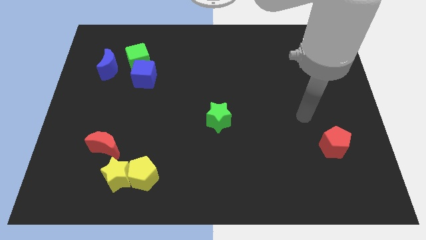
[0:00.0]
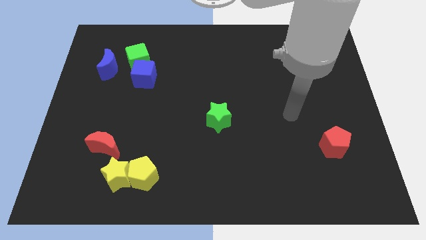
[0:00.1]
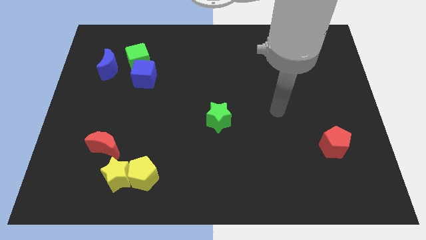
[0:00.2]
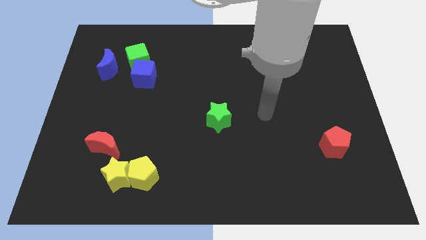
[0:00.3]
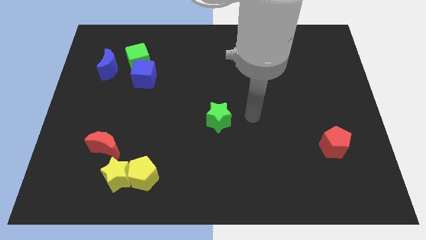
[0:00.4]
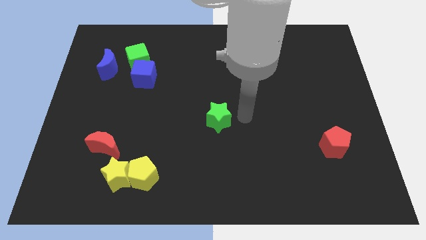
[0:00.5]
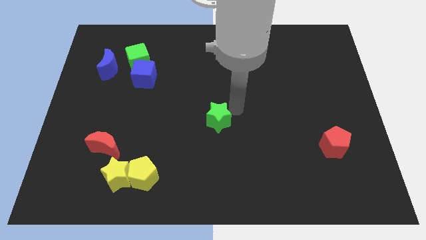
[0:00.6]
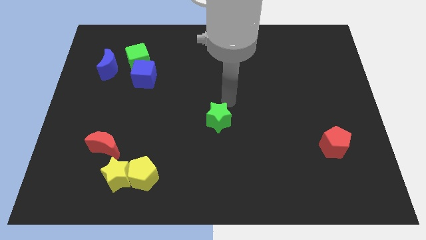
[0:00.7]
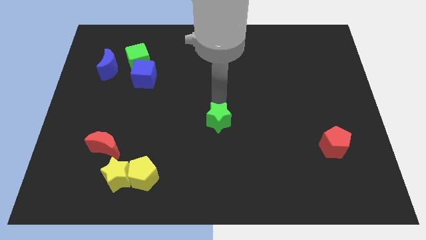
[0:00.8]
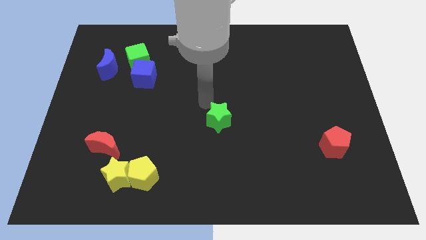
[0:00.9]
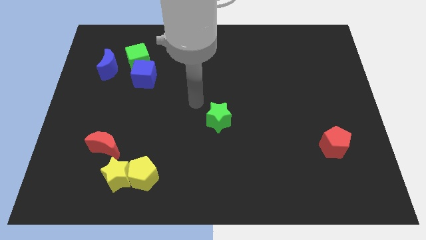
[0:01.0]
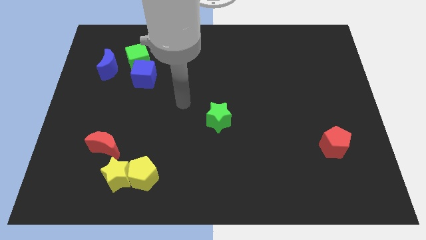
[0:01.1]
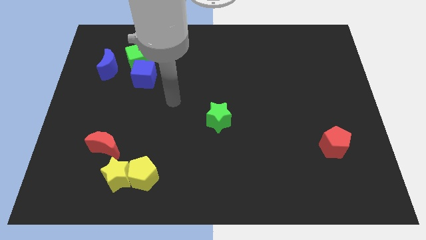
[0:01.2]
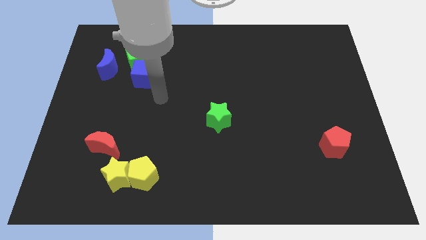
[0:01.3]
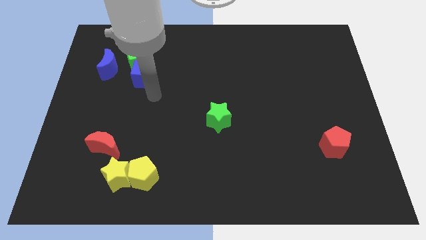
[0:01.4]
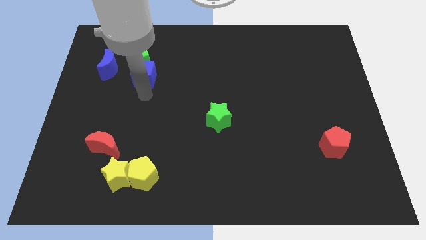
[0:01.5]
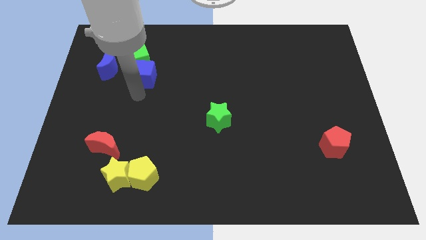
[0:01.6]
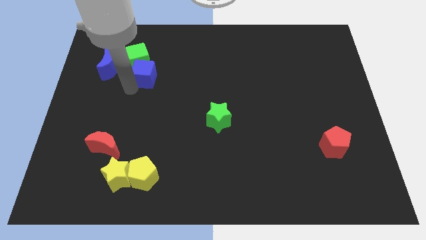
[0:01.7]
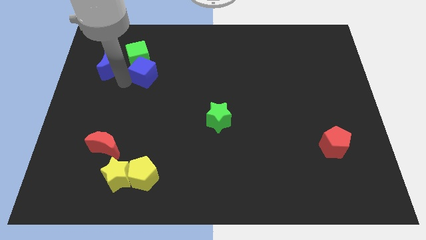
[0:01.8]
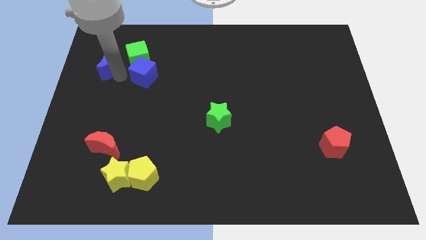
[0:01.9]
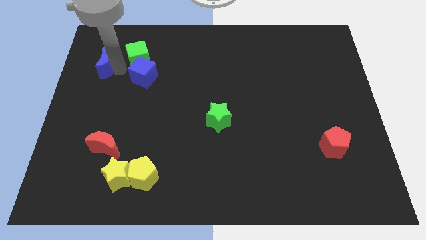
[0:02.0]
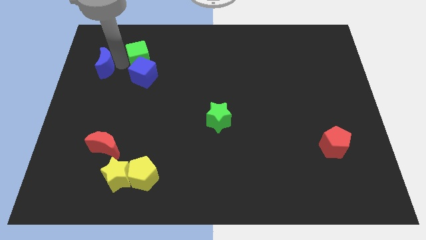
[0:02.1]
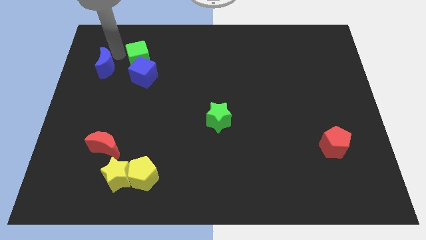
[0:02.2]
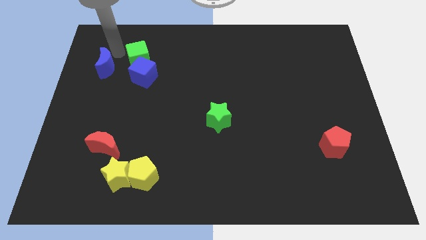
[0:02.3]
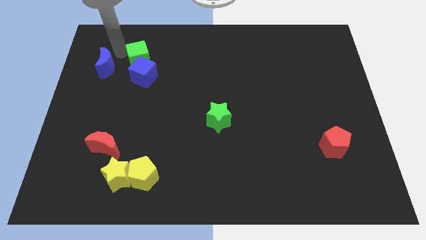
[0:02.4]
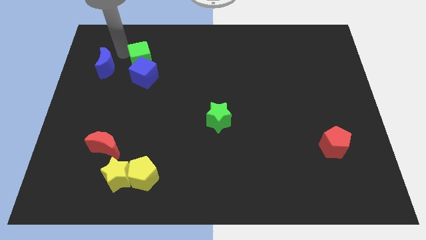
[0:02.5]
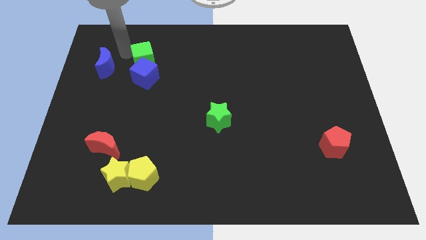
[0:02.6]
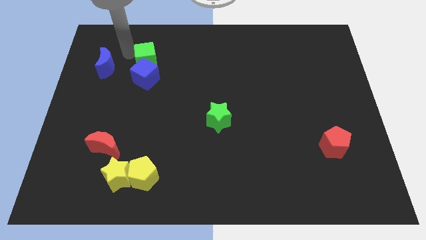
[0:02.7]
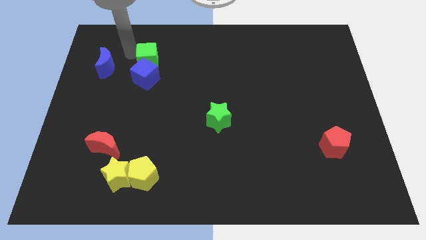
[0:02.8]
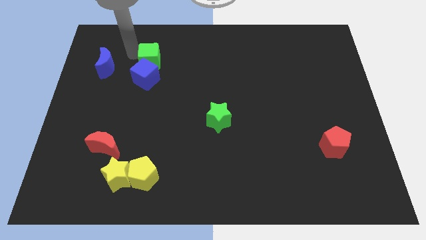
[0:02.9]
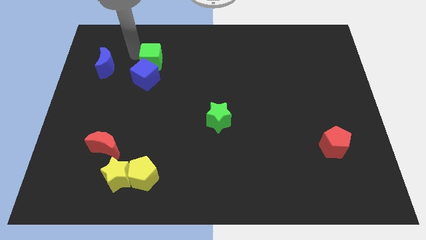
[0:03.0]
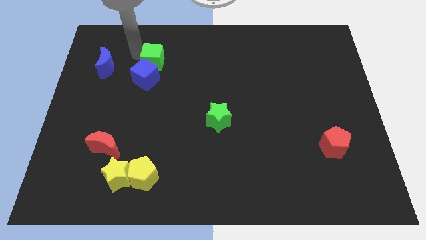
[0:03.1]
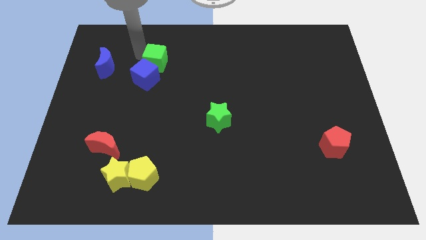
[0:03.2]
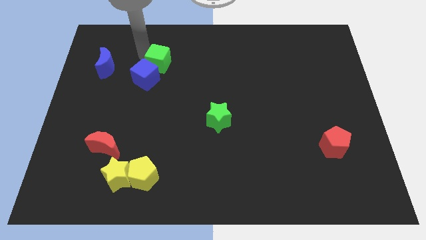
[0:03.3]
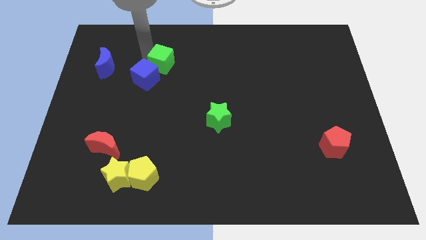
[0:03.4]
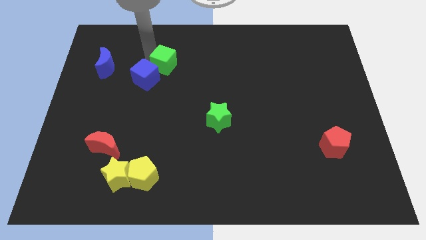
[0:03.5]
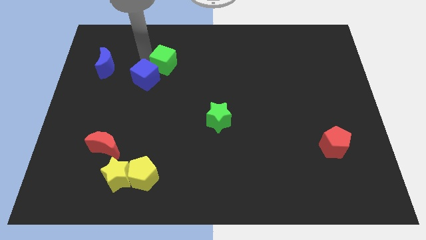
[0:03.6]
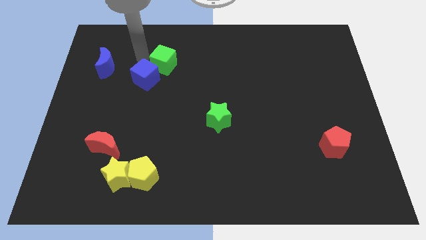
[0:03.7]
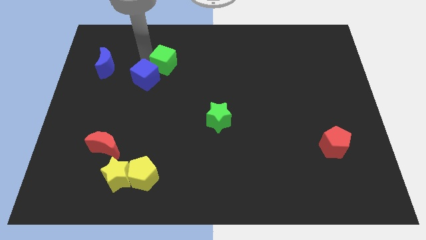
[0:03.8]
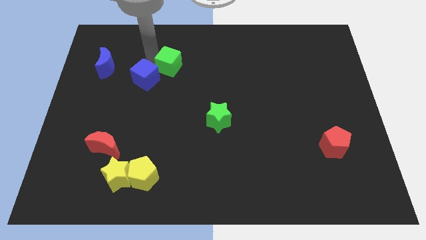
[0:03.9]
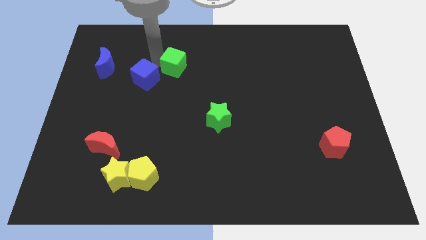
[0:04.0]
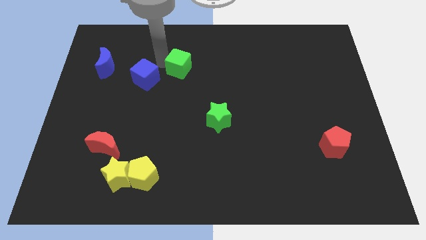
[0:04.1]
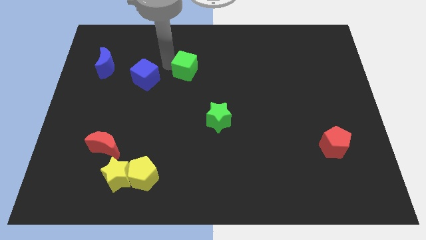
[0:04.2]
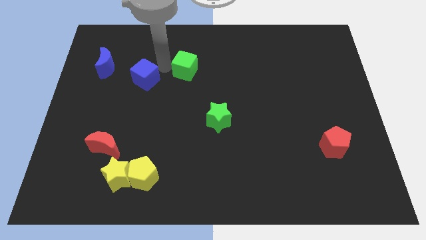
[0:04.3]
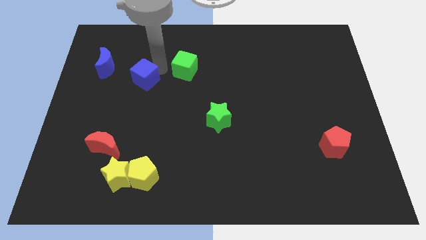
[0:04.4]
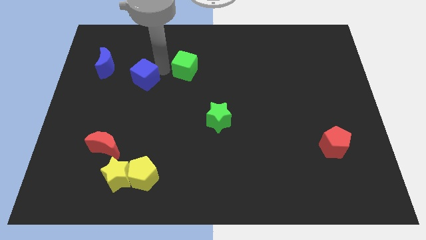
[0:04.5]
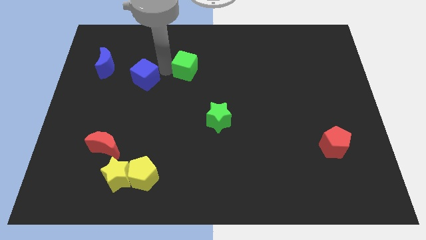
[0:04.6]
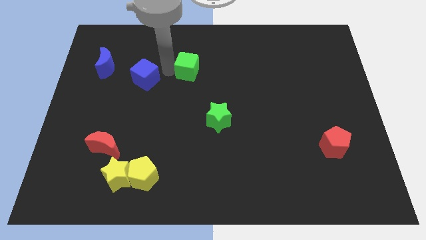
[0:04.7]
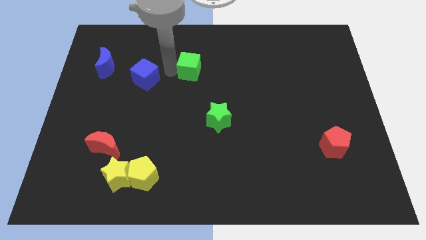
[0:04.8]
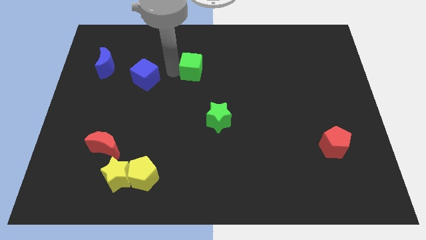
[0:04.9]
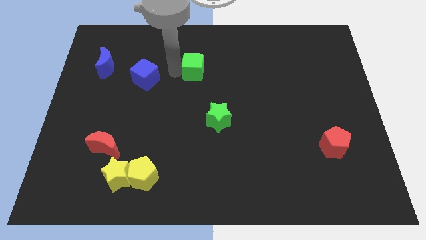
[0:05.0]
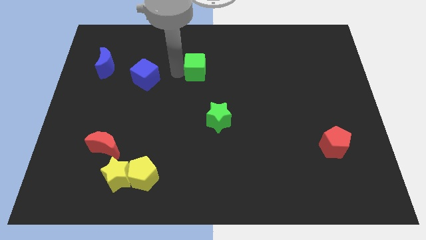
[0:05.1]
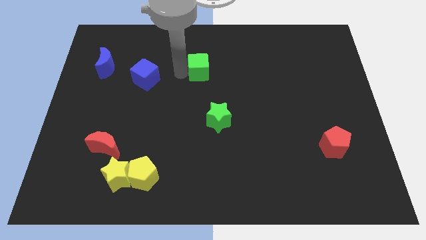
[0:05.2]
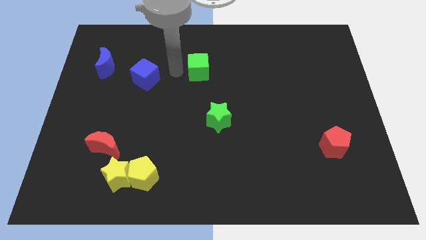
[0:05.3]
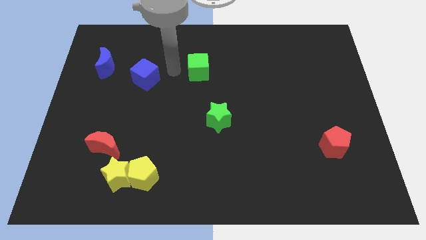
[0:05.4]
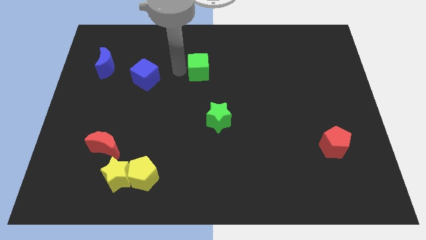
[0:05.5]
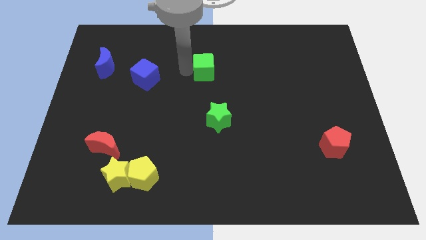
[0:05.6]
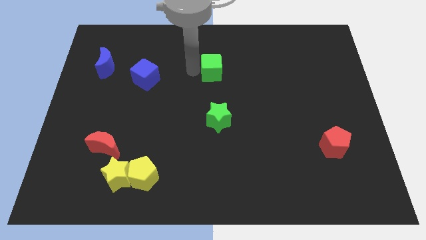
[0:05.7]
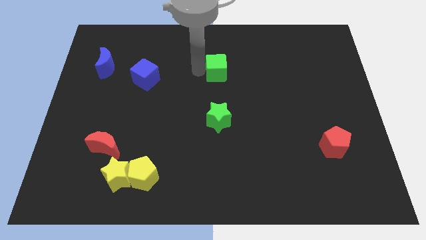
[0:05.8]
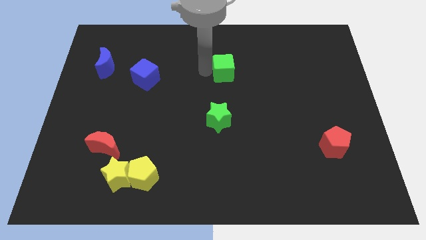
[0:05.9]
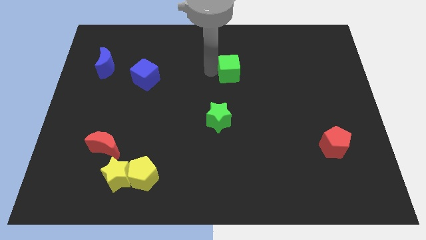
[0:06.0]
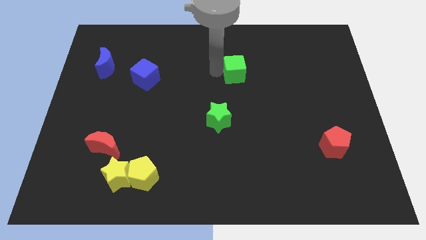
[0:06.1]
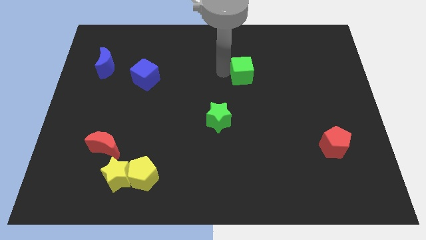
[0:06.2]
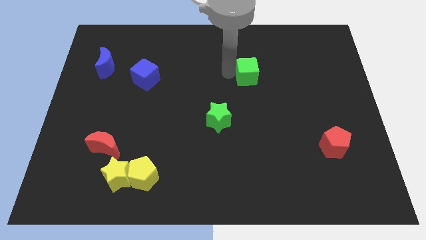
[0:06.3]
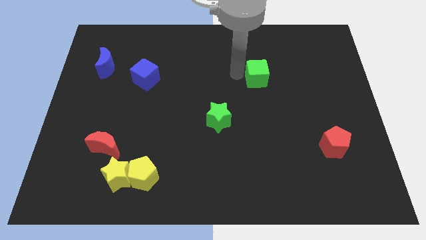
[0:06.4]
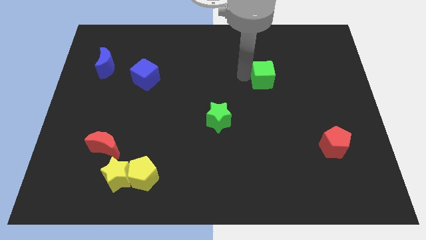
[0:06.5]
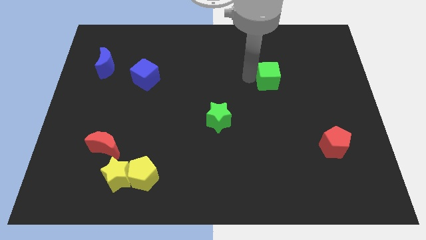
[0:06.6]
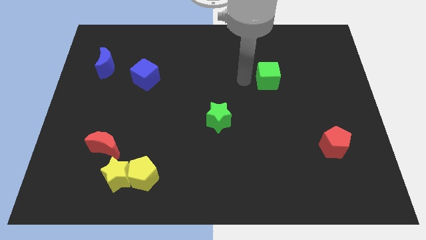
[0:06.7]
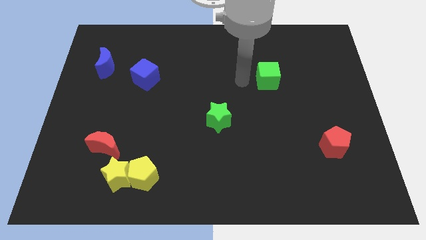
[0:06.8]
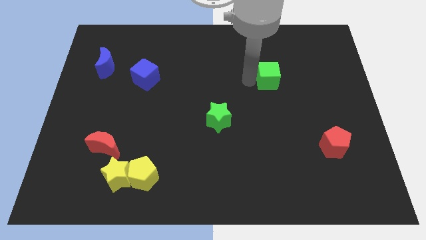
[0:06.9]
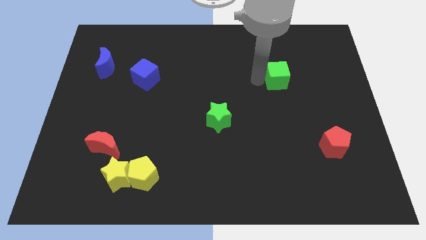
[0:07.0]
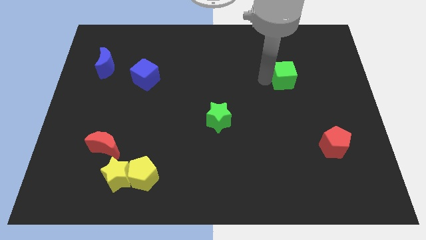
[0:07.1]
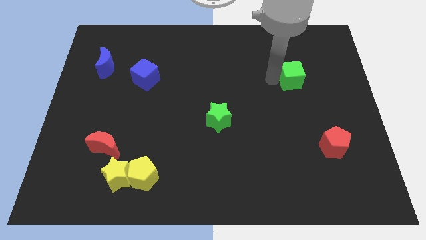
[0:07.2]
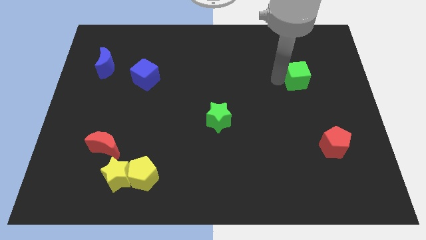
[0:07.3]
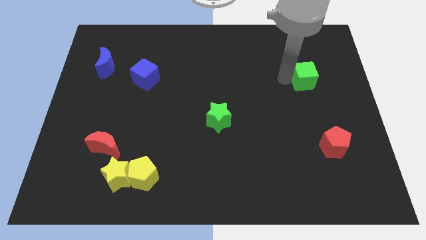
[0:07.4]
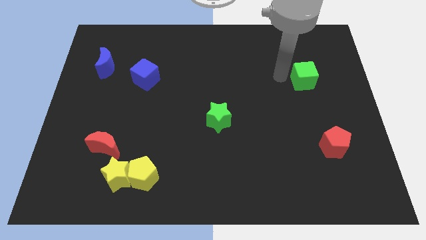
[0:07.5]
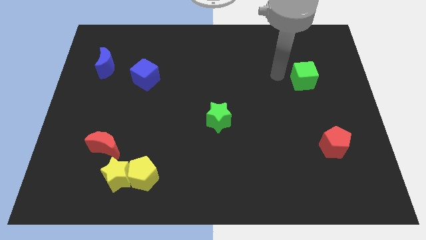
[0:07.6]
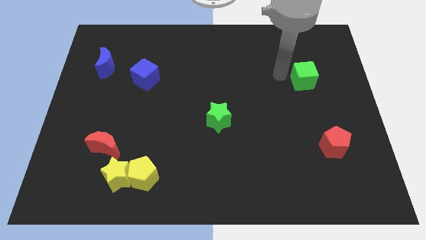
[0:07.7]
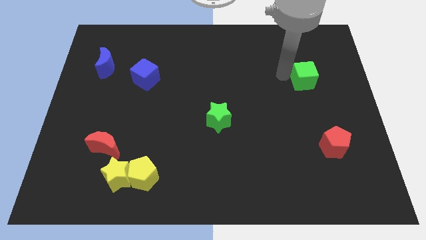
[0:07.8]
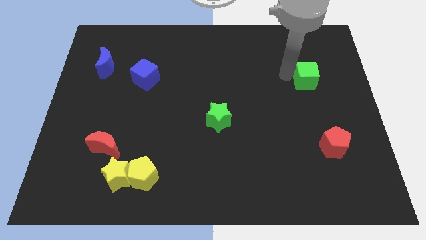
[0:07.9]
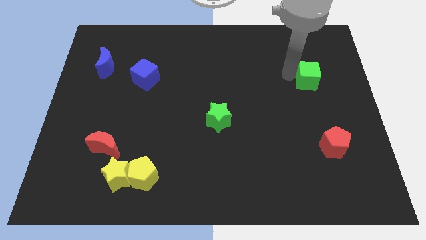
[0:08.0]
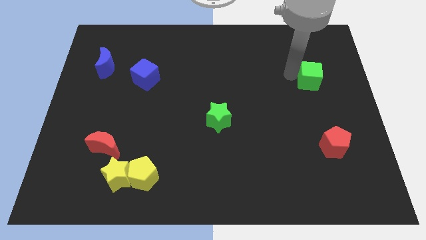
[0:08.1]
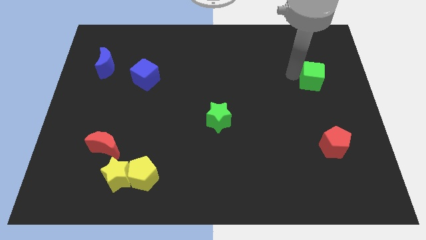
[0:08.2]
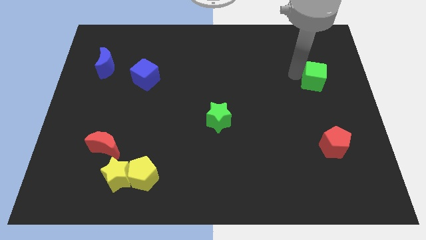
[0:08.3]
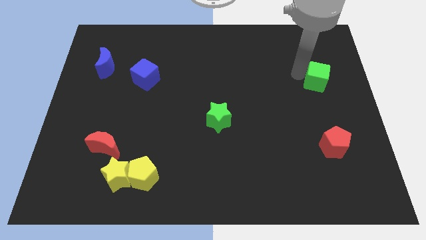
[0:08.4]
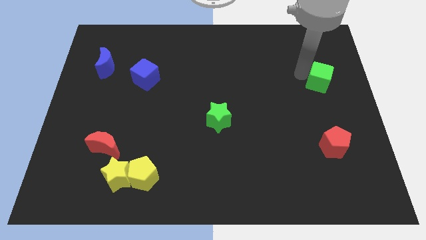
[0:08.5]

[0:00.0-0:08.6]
push the green cube to the right side
